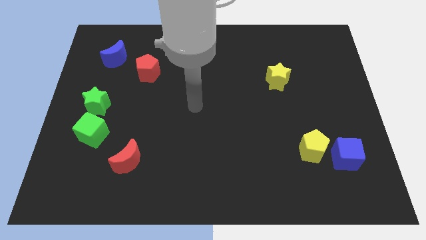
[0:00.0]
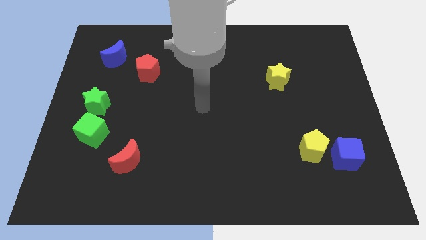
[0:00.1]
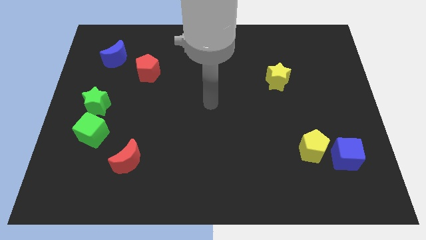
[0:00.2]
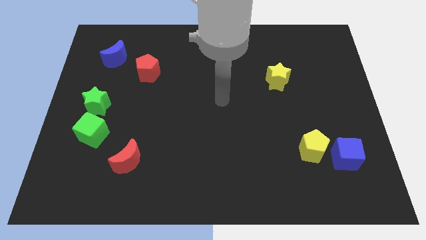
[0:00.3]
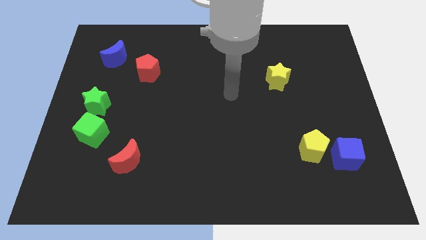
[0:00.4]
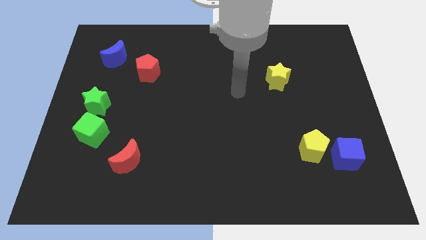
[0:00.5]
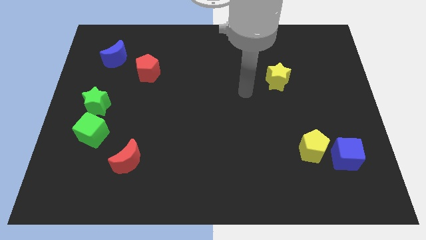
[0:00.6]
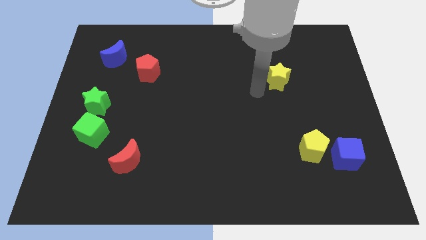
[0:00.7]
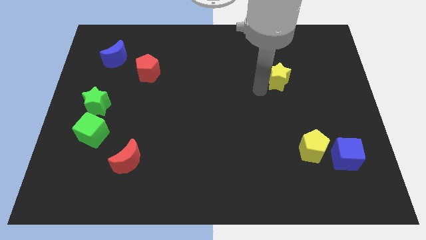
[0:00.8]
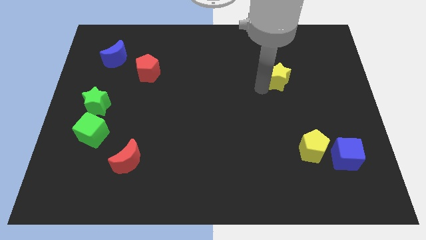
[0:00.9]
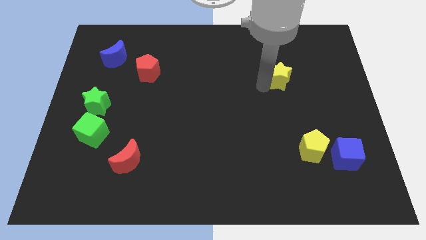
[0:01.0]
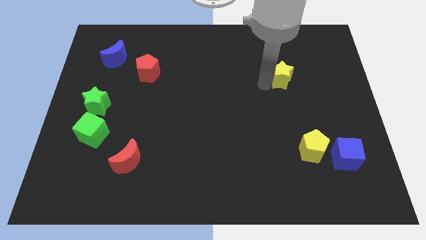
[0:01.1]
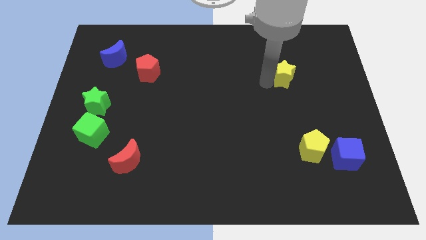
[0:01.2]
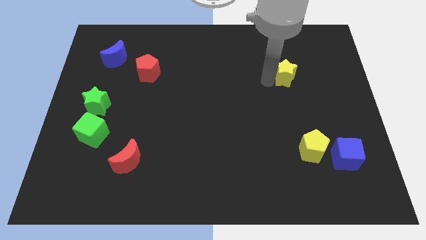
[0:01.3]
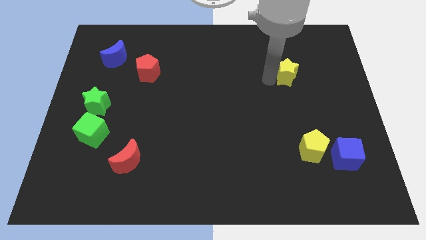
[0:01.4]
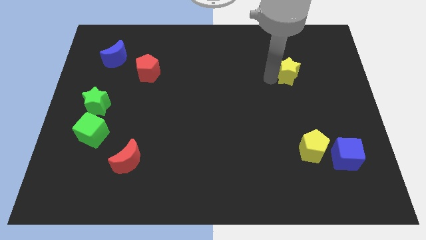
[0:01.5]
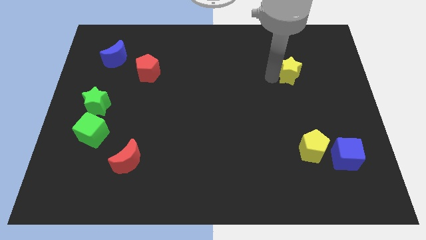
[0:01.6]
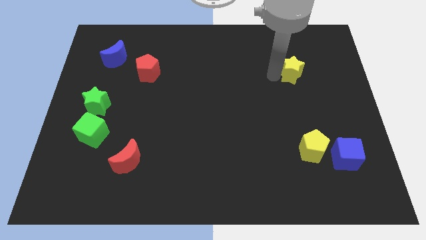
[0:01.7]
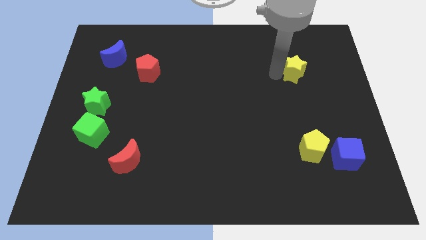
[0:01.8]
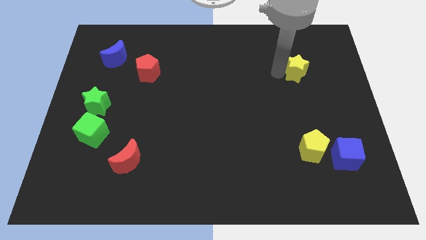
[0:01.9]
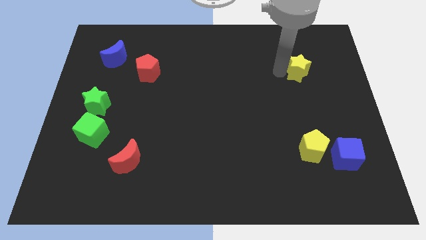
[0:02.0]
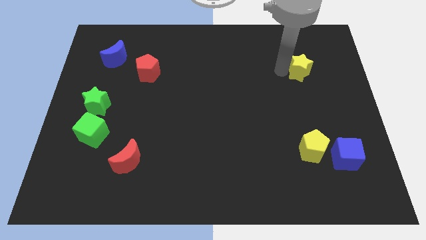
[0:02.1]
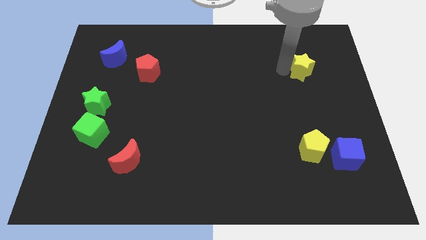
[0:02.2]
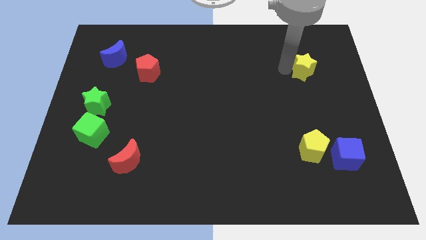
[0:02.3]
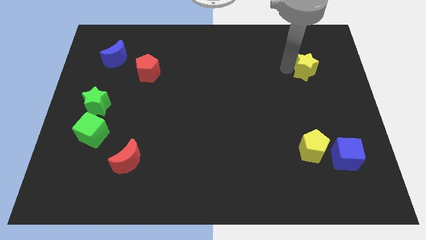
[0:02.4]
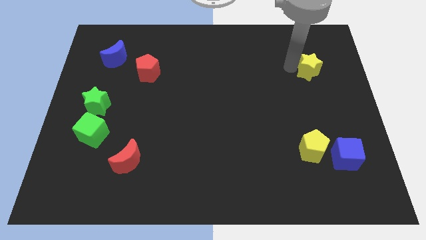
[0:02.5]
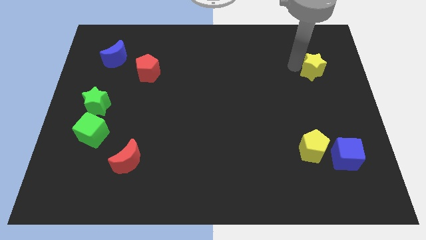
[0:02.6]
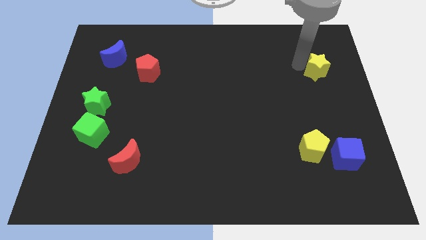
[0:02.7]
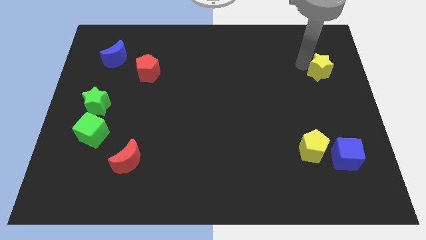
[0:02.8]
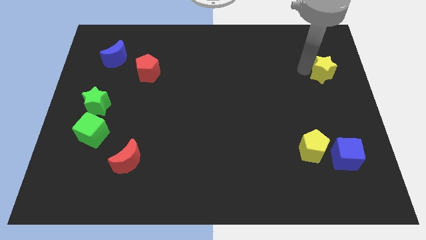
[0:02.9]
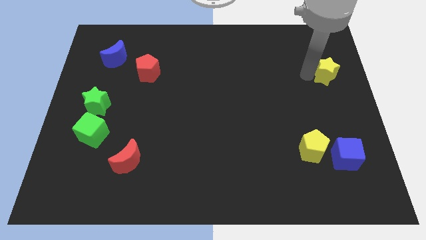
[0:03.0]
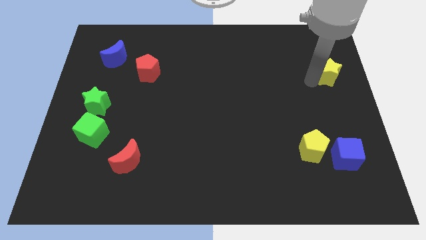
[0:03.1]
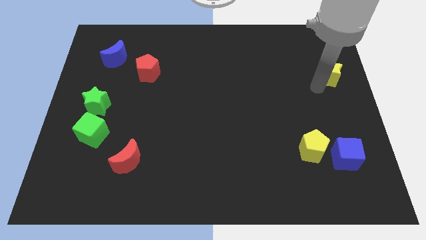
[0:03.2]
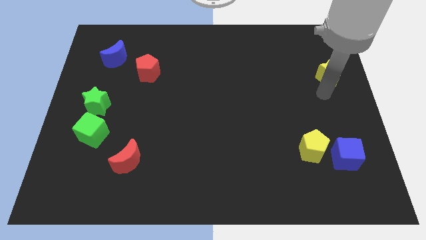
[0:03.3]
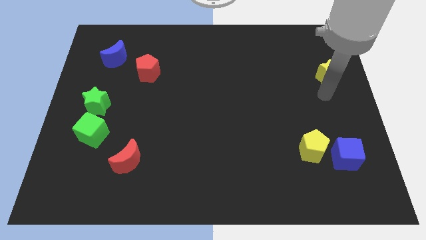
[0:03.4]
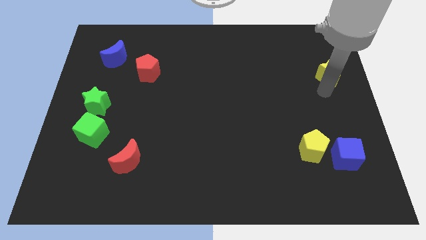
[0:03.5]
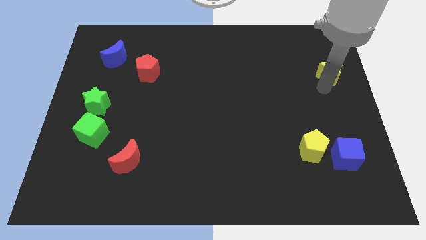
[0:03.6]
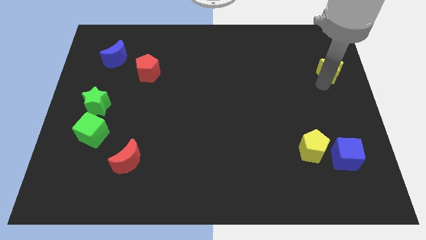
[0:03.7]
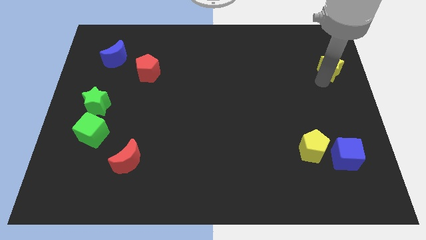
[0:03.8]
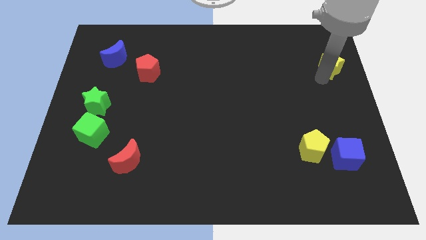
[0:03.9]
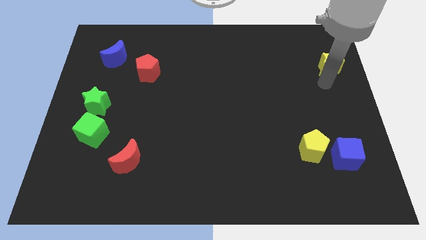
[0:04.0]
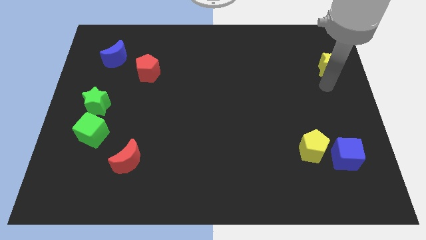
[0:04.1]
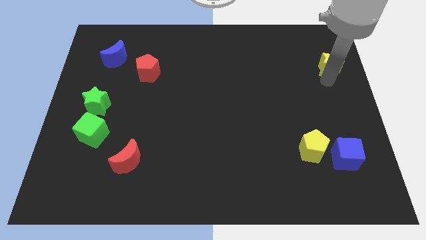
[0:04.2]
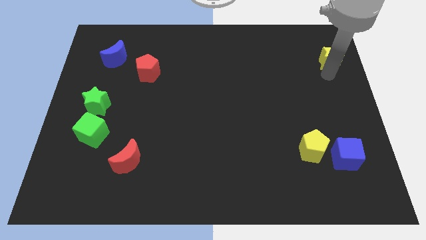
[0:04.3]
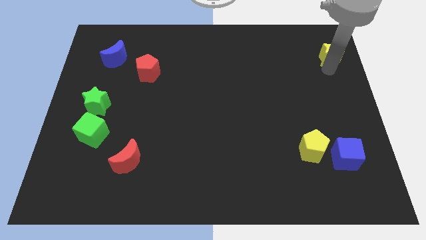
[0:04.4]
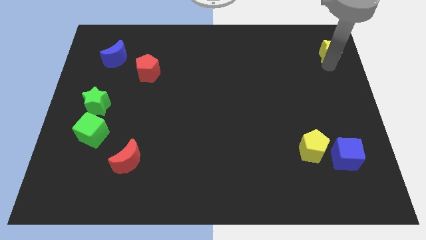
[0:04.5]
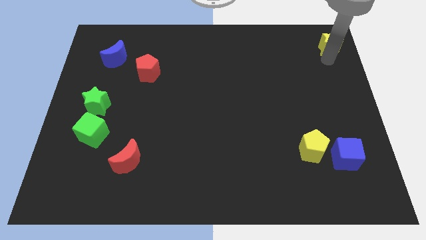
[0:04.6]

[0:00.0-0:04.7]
slide the yellow star to the top right corner

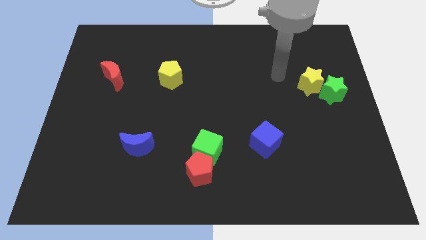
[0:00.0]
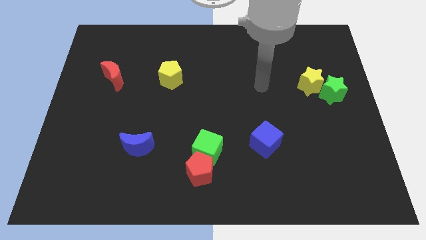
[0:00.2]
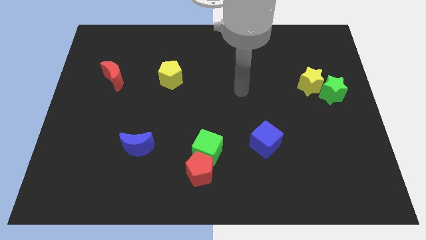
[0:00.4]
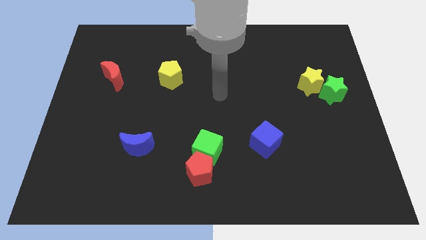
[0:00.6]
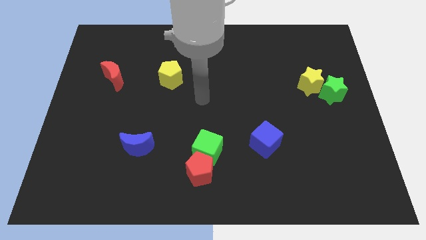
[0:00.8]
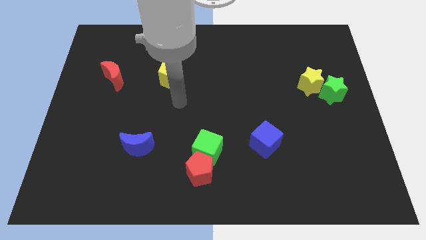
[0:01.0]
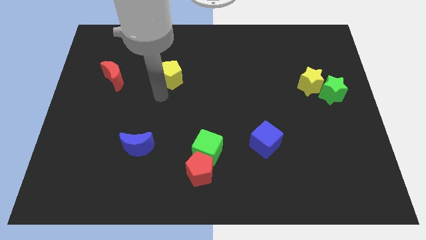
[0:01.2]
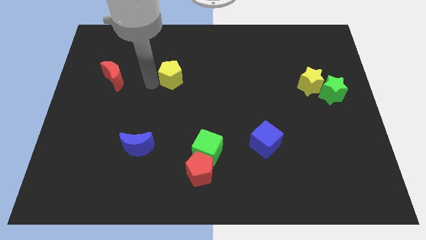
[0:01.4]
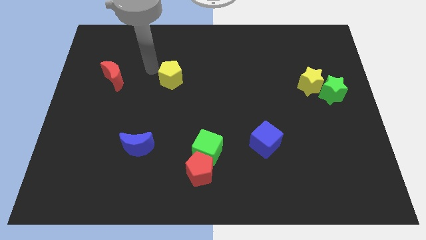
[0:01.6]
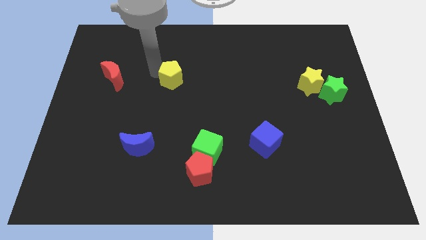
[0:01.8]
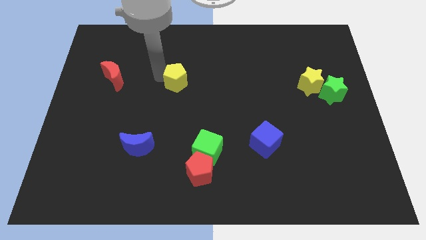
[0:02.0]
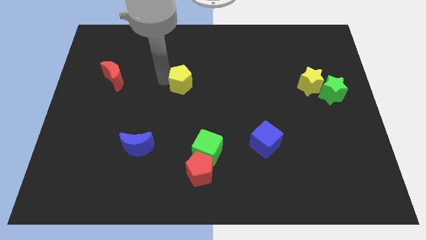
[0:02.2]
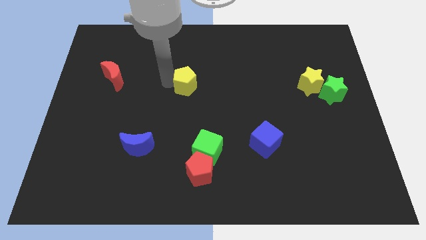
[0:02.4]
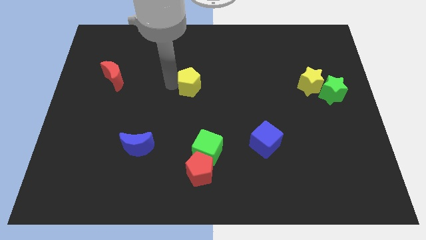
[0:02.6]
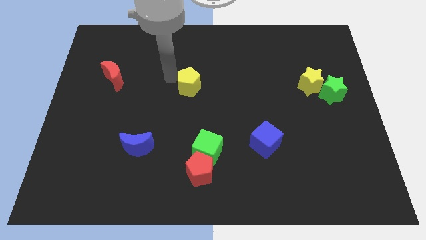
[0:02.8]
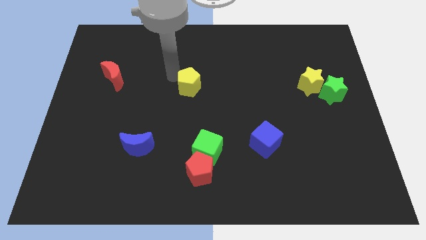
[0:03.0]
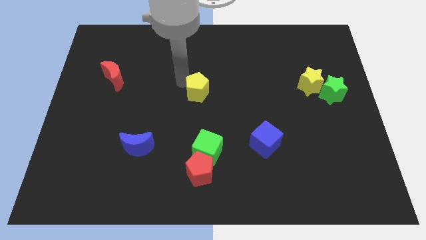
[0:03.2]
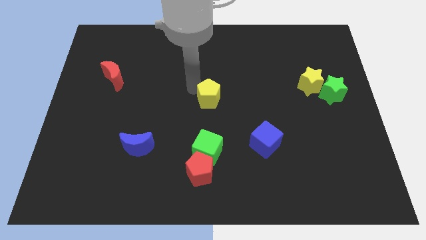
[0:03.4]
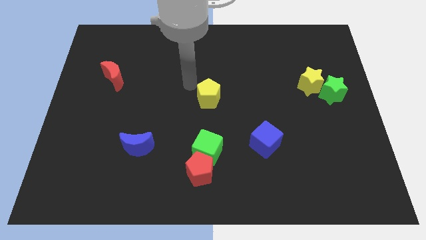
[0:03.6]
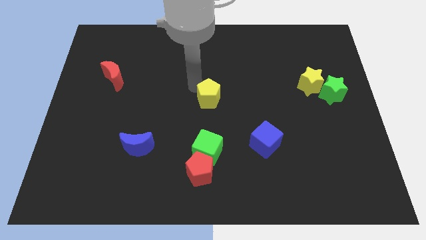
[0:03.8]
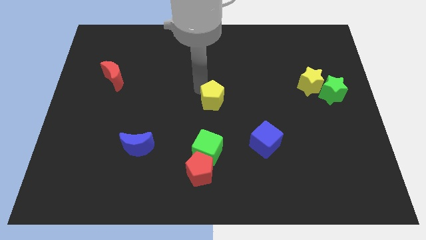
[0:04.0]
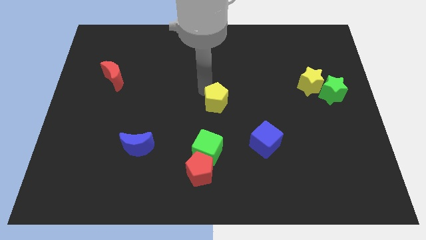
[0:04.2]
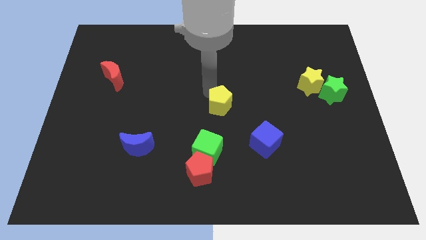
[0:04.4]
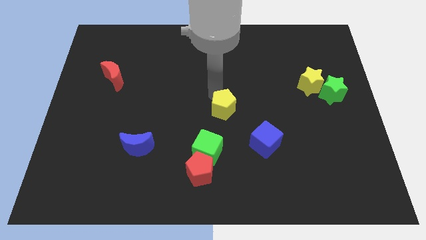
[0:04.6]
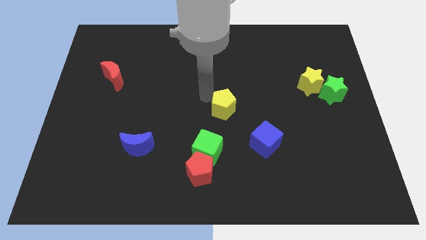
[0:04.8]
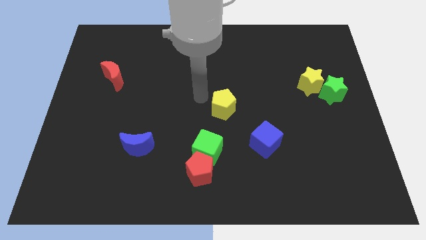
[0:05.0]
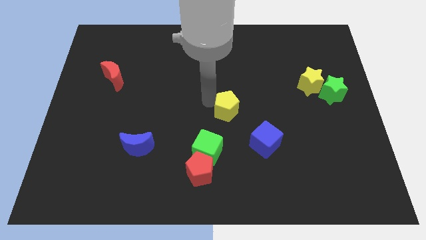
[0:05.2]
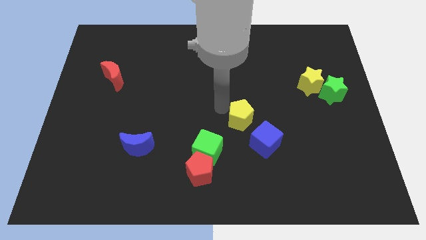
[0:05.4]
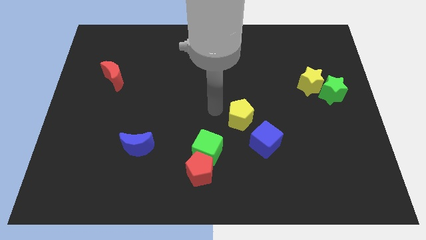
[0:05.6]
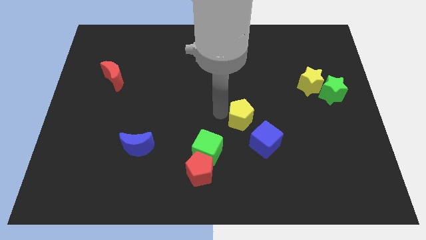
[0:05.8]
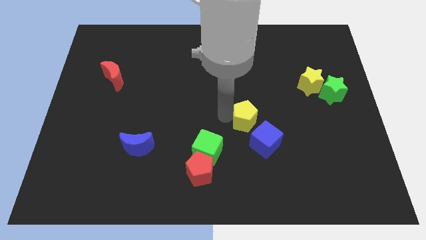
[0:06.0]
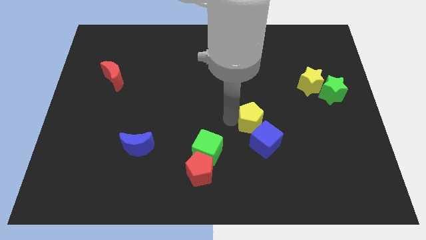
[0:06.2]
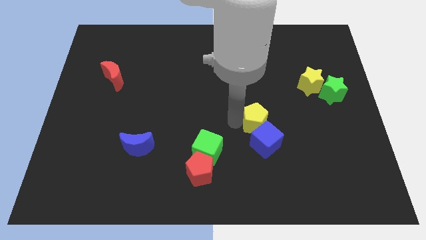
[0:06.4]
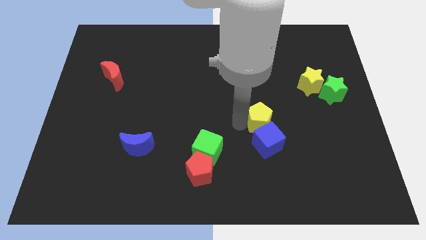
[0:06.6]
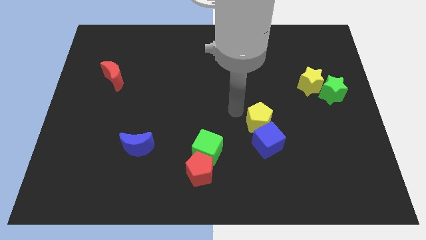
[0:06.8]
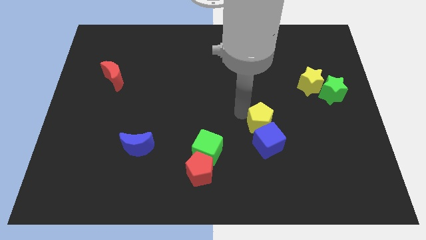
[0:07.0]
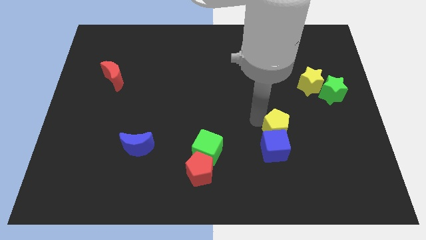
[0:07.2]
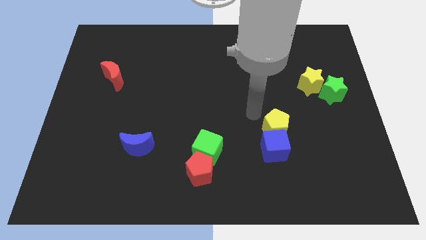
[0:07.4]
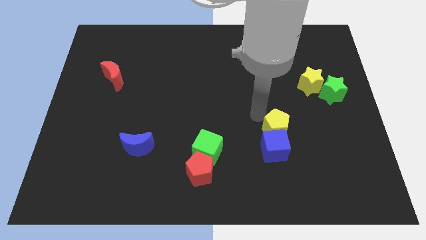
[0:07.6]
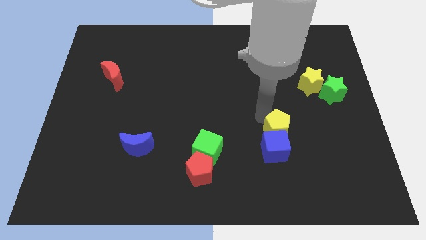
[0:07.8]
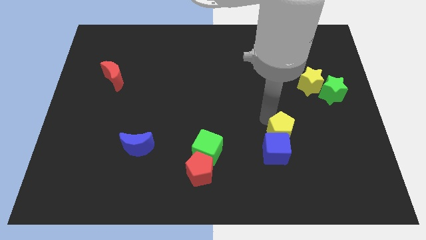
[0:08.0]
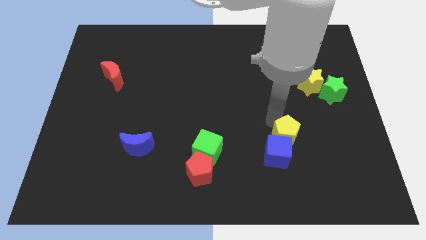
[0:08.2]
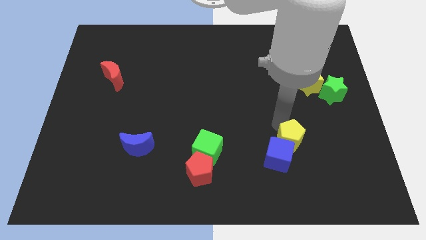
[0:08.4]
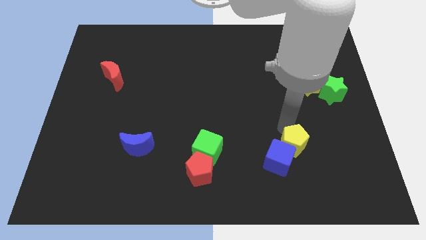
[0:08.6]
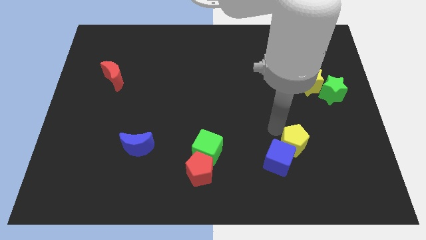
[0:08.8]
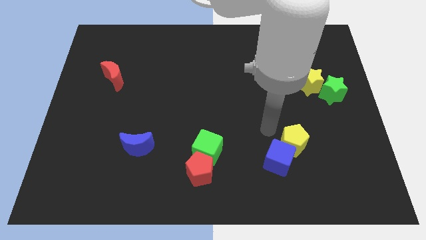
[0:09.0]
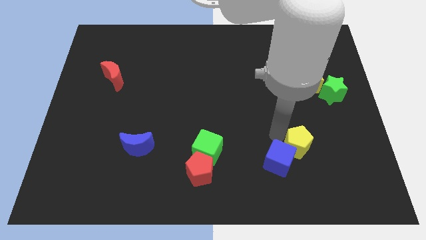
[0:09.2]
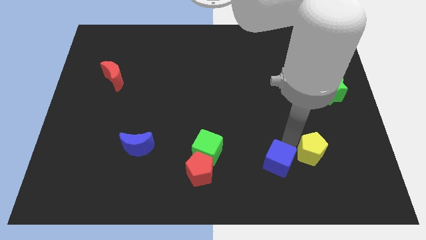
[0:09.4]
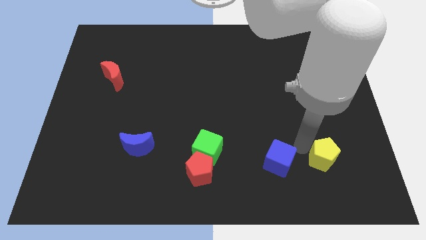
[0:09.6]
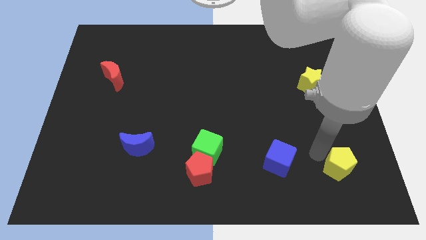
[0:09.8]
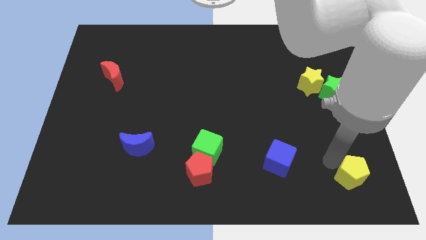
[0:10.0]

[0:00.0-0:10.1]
slide the yellow pentagon to the bottom right of the board
